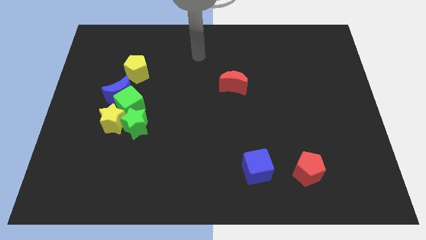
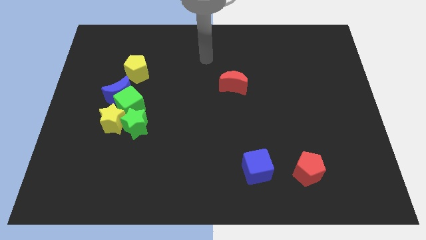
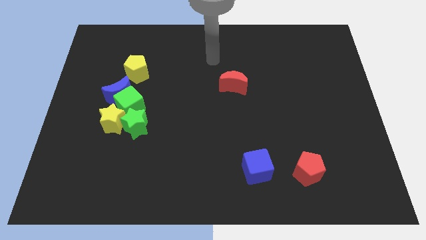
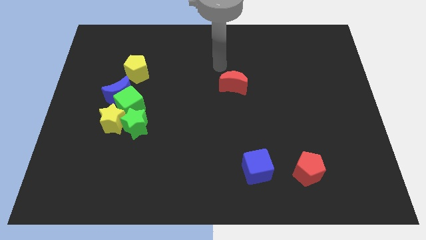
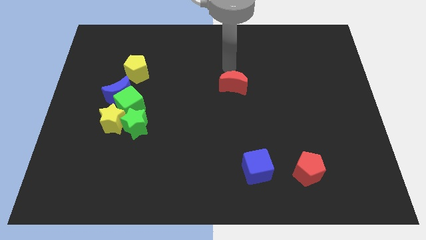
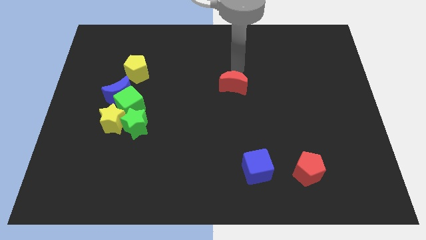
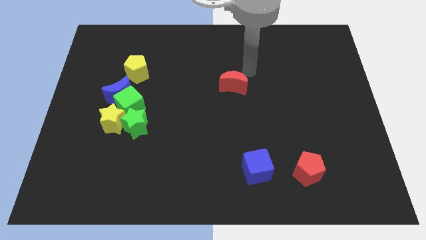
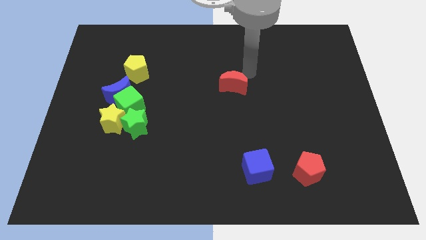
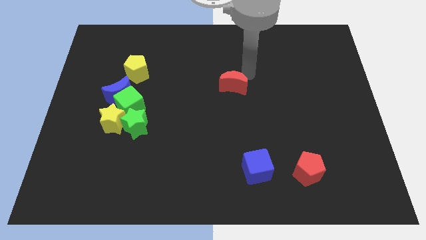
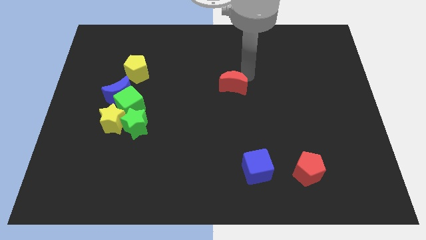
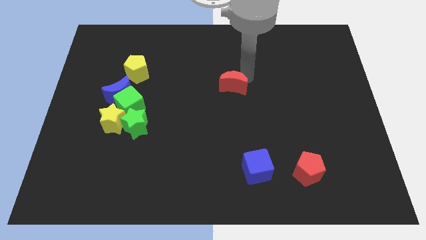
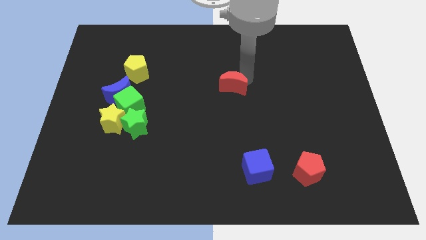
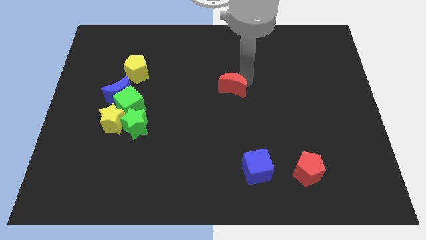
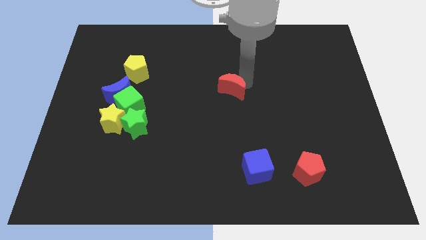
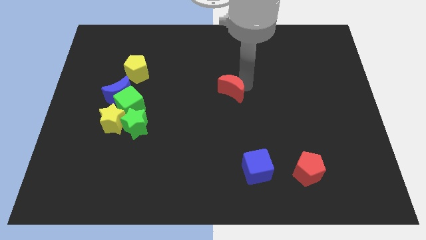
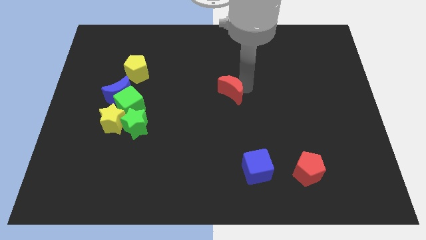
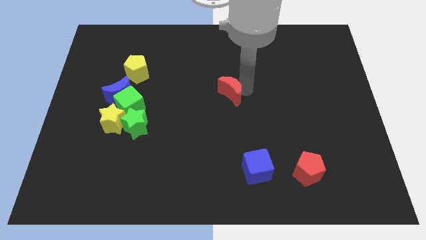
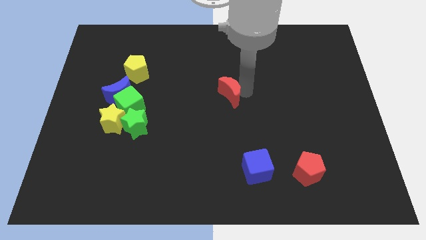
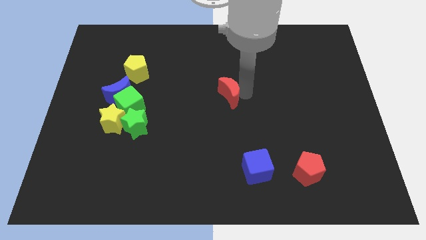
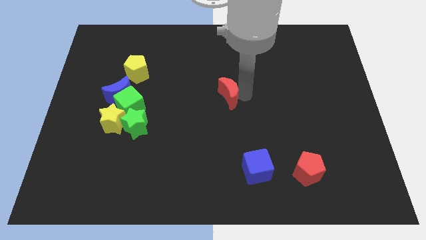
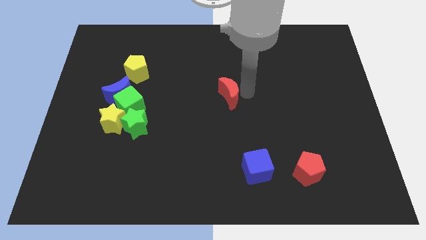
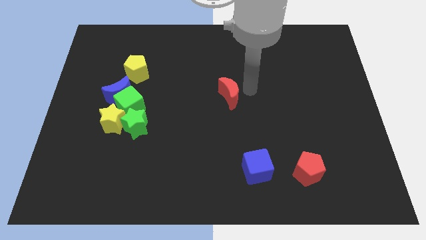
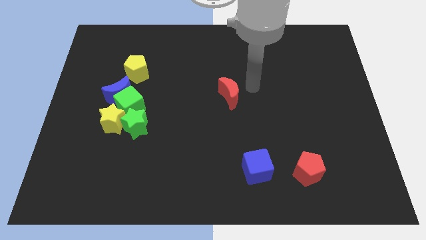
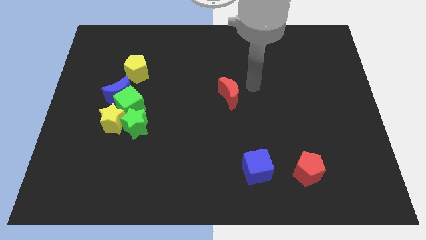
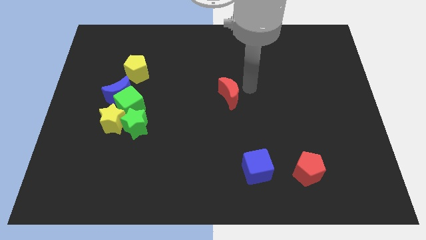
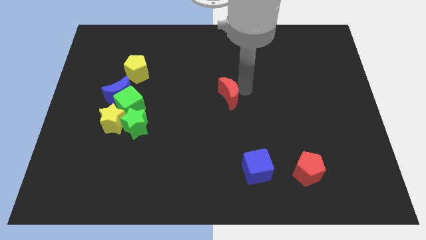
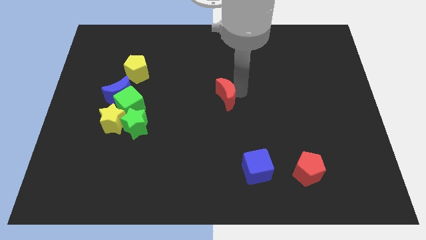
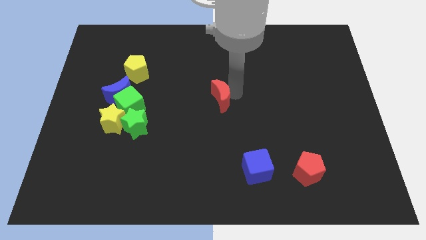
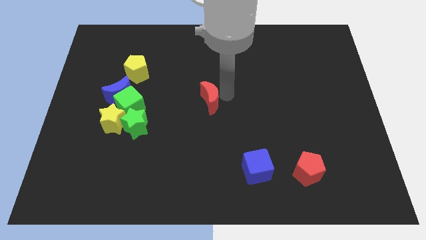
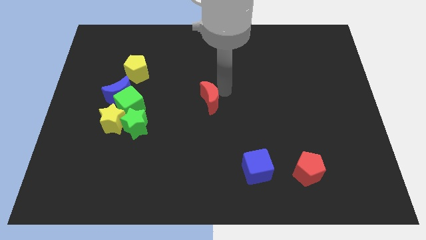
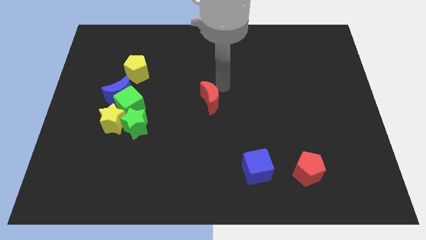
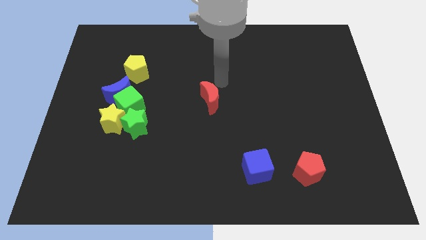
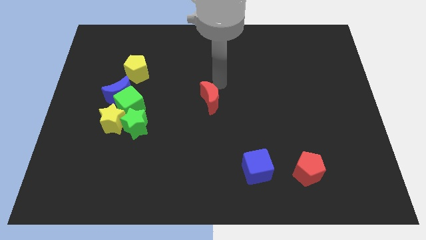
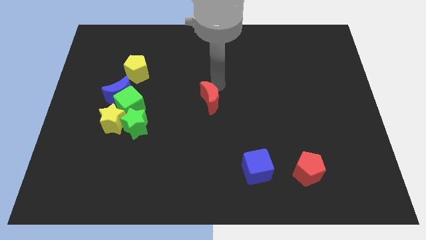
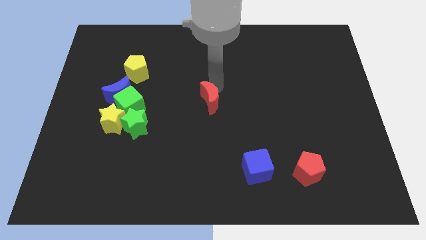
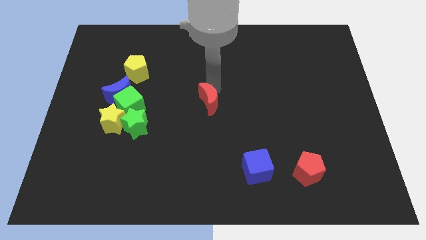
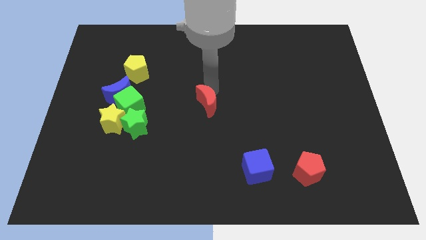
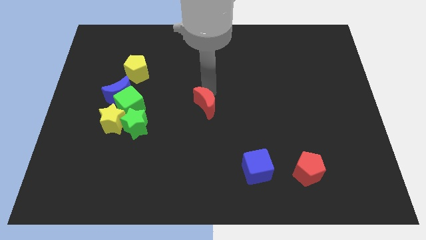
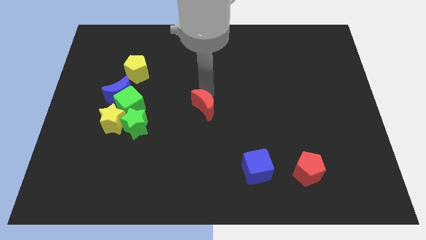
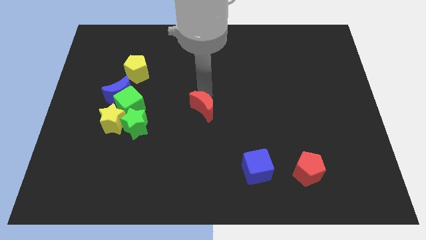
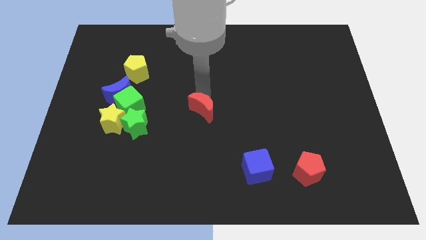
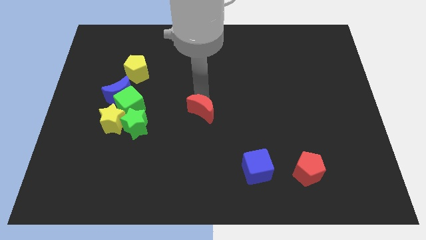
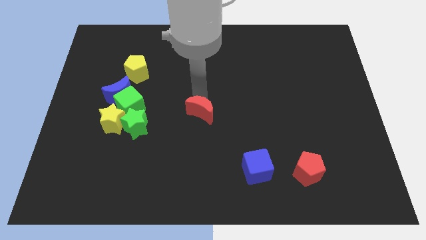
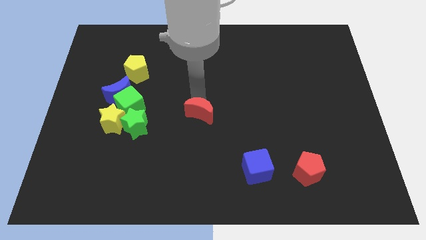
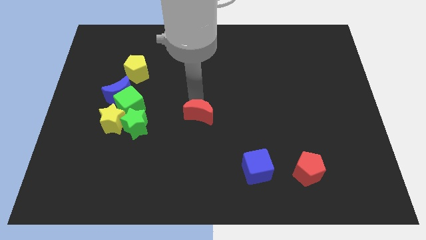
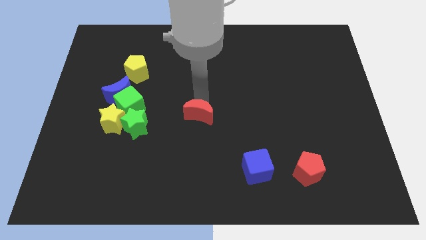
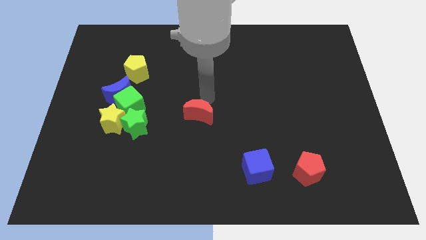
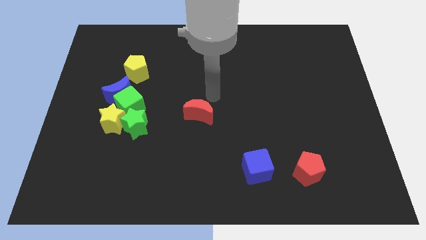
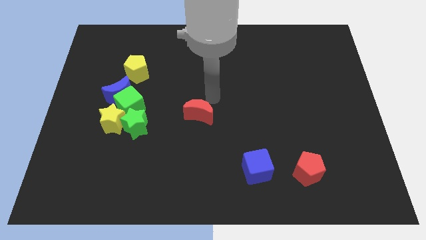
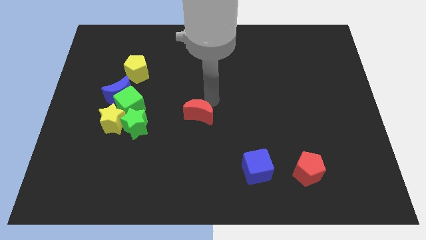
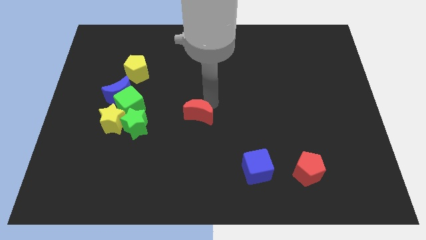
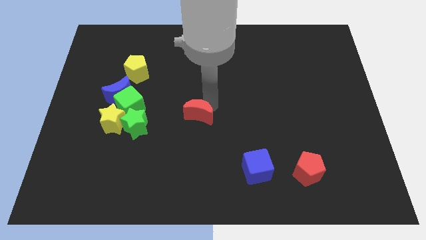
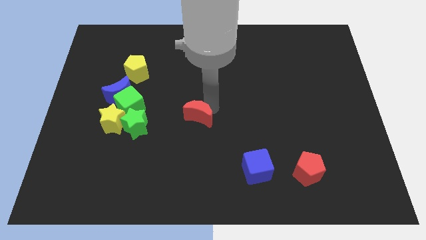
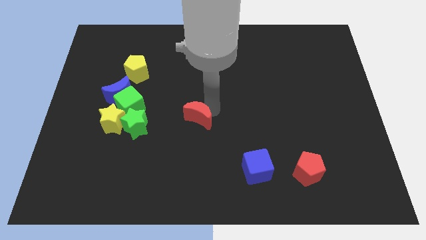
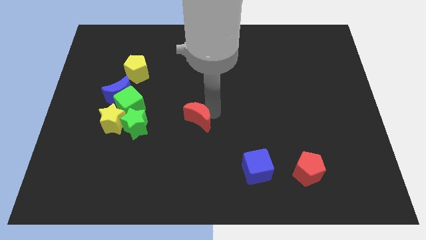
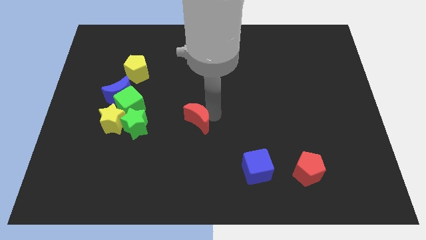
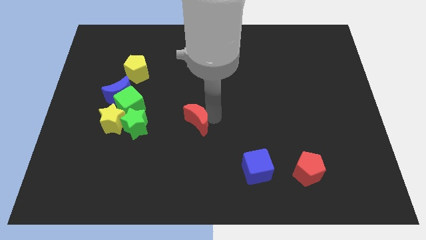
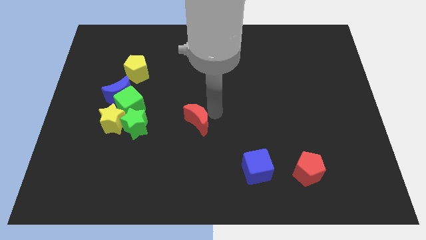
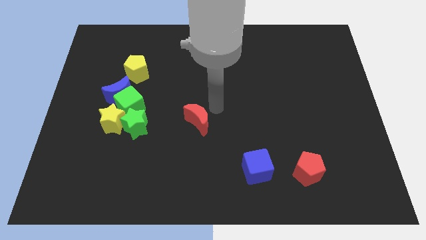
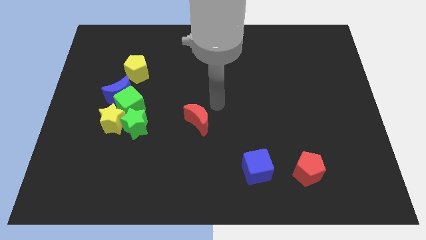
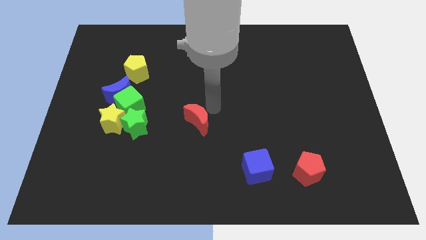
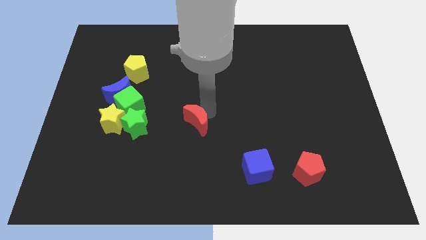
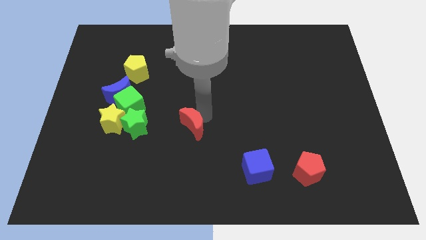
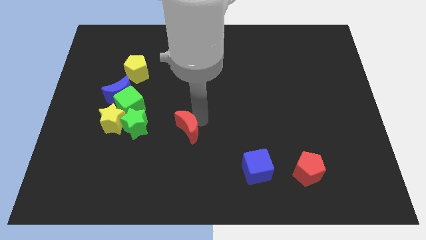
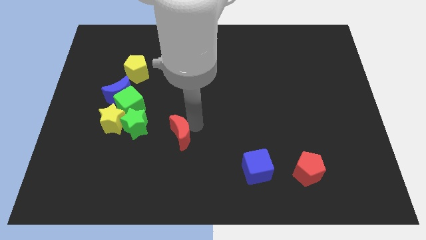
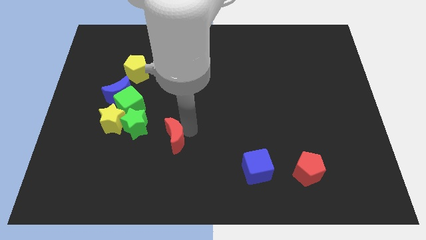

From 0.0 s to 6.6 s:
slide the red moon to the bottom right side of the green star
